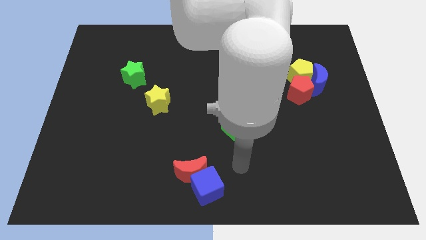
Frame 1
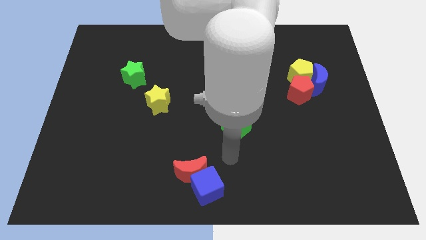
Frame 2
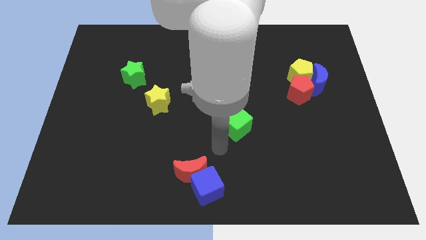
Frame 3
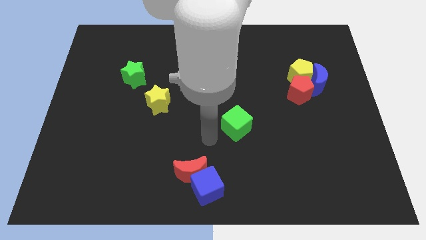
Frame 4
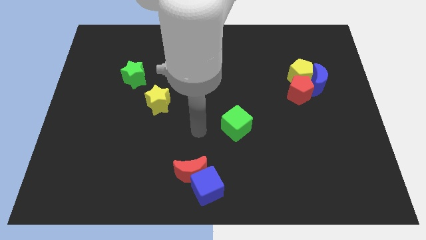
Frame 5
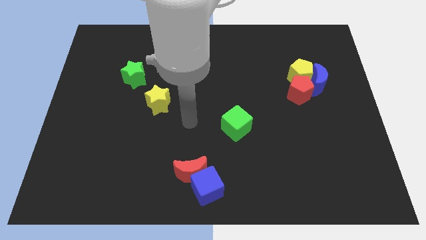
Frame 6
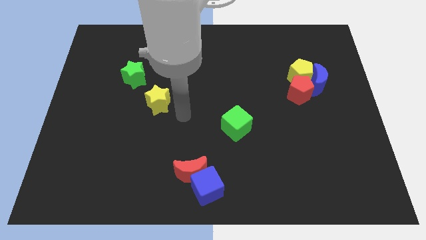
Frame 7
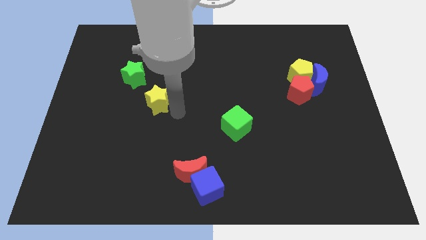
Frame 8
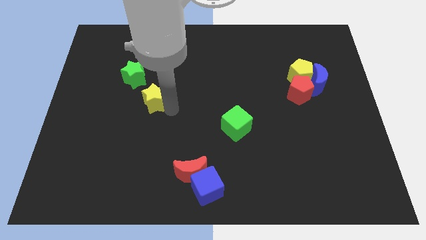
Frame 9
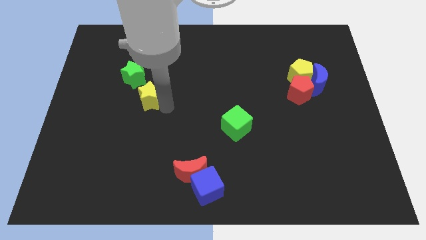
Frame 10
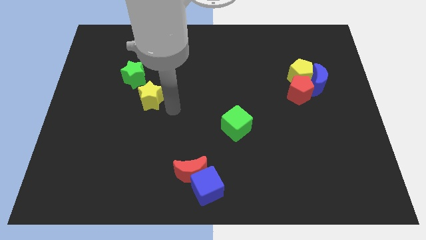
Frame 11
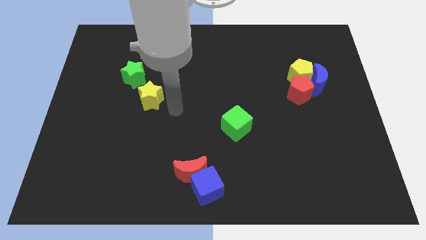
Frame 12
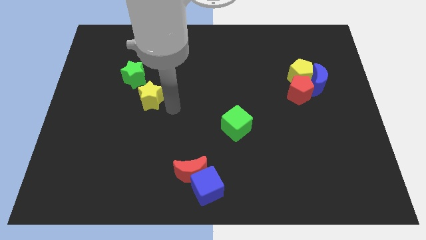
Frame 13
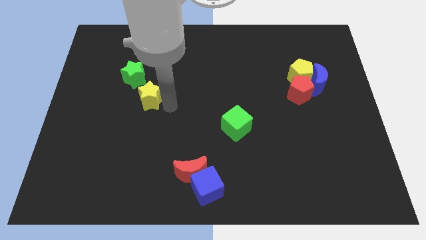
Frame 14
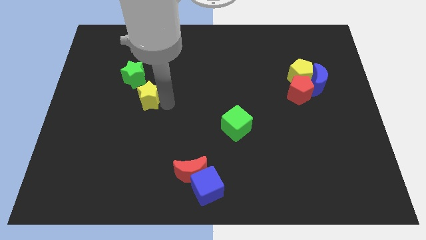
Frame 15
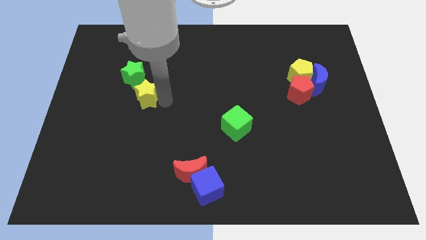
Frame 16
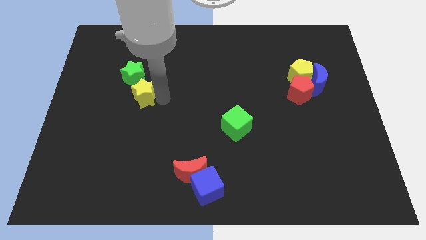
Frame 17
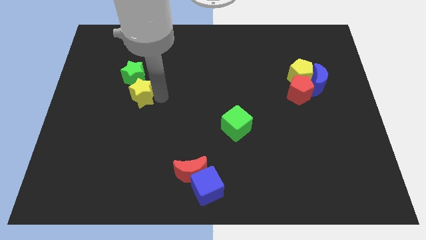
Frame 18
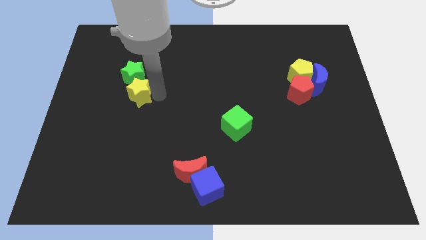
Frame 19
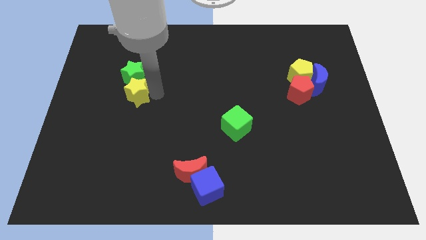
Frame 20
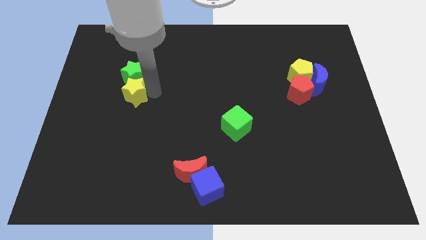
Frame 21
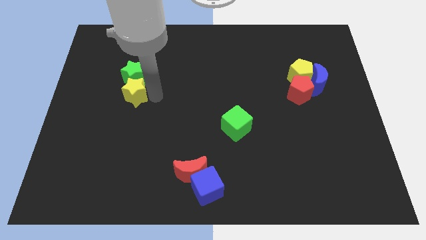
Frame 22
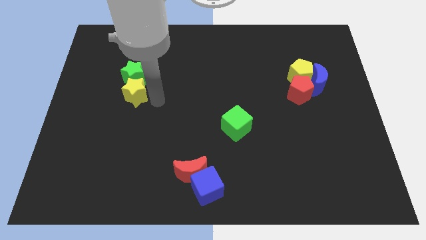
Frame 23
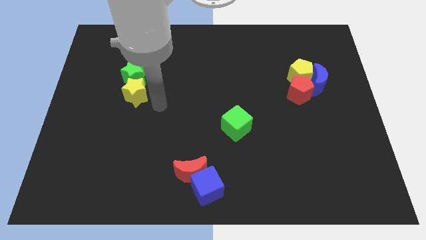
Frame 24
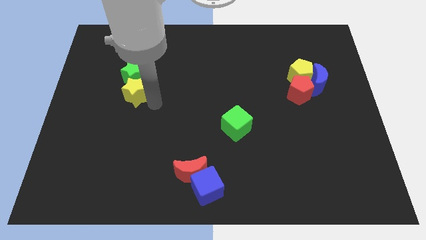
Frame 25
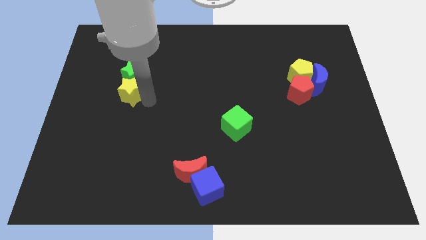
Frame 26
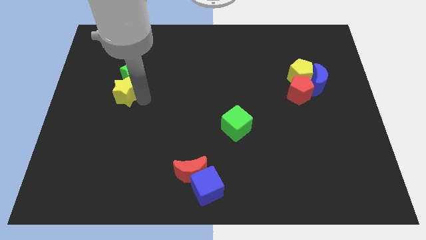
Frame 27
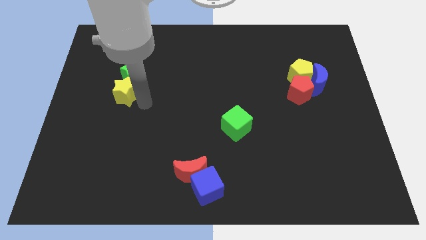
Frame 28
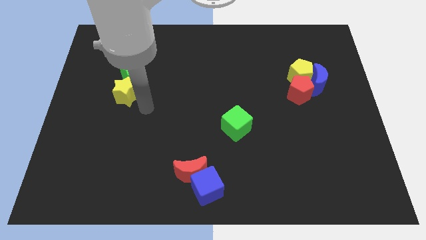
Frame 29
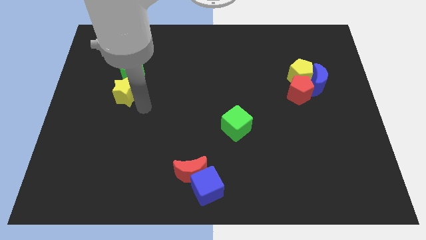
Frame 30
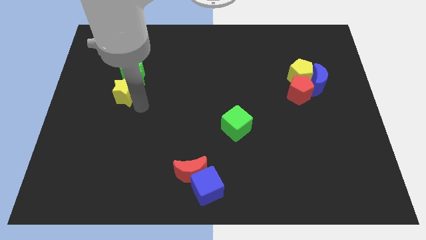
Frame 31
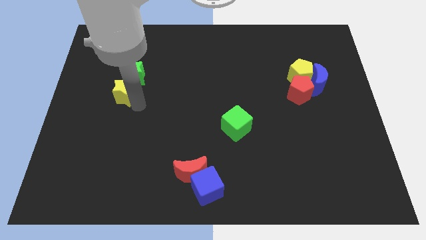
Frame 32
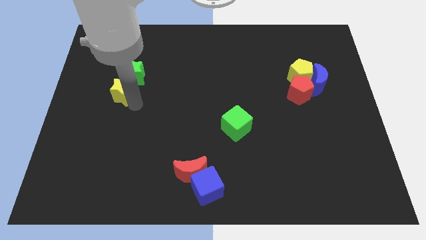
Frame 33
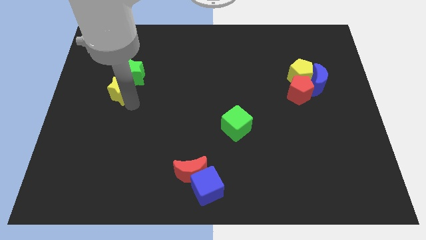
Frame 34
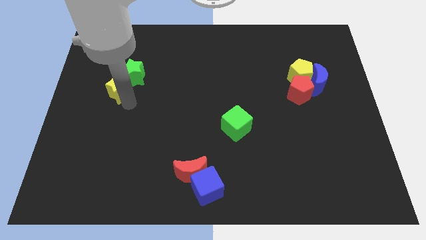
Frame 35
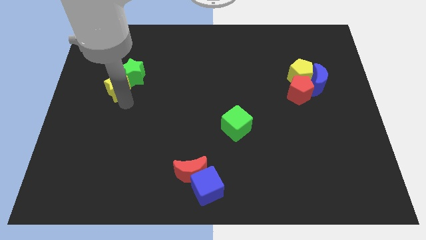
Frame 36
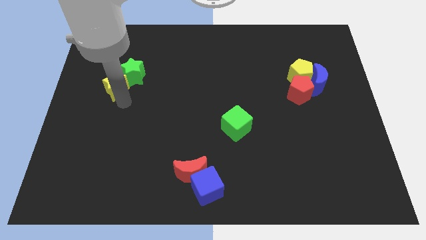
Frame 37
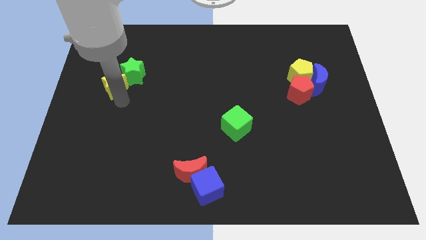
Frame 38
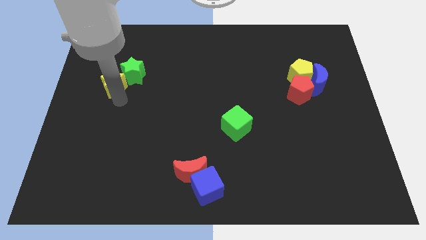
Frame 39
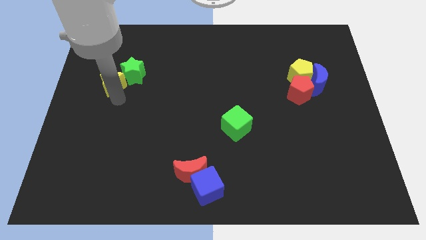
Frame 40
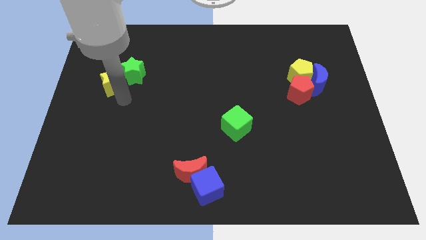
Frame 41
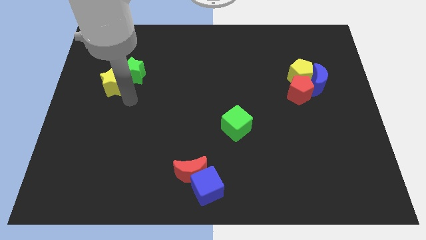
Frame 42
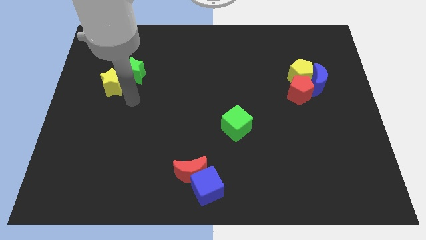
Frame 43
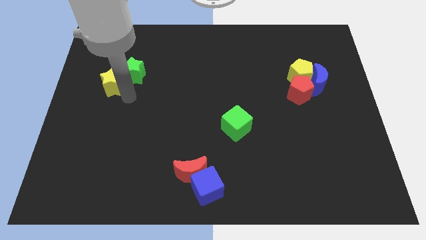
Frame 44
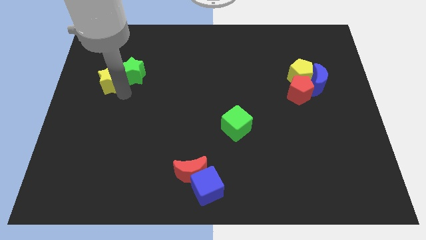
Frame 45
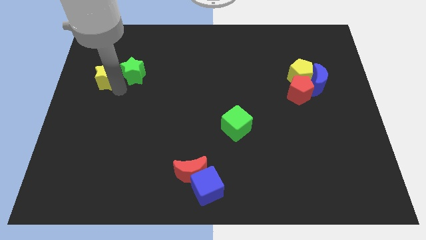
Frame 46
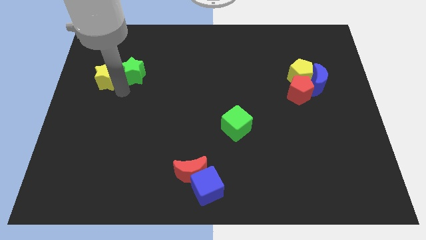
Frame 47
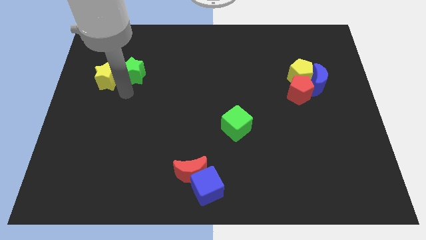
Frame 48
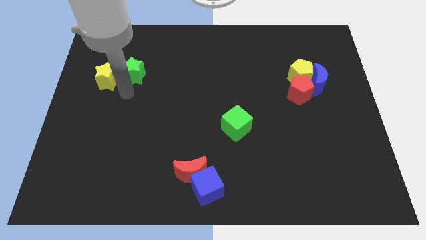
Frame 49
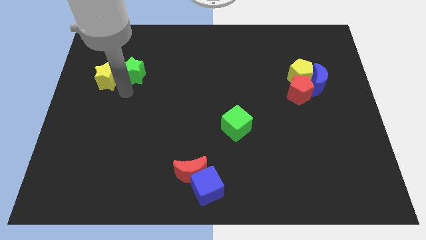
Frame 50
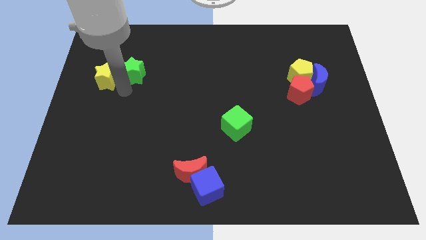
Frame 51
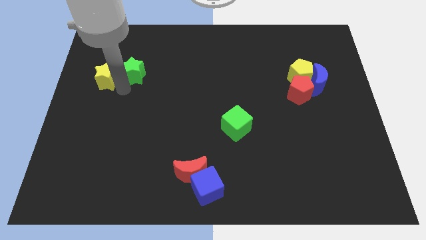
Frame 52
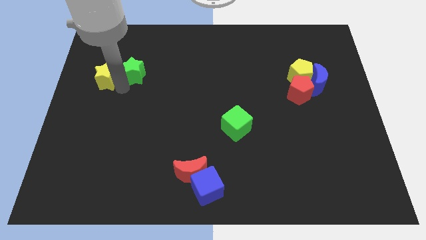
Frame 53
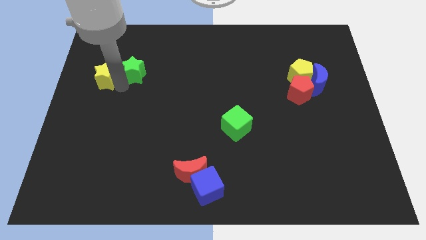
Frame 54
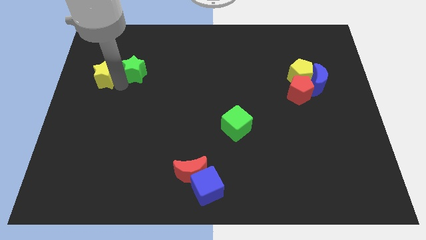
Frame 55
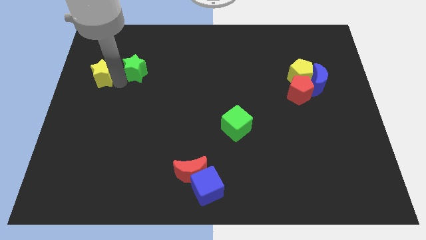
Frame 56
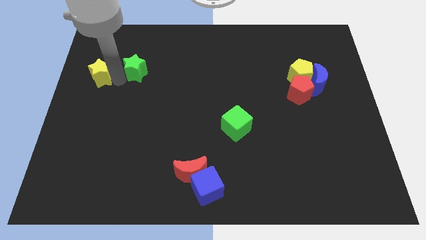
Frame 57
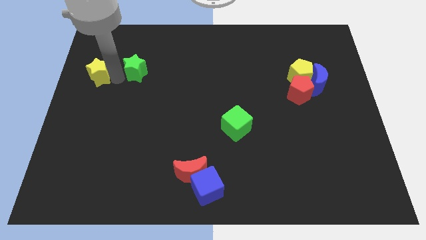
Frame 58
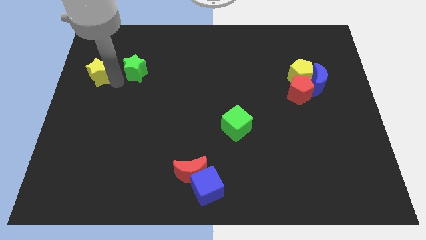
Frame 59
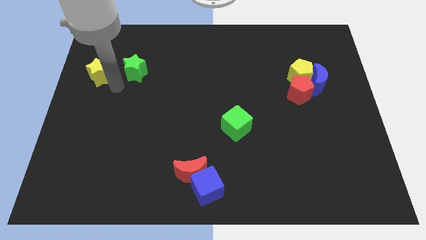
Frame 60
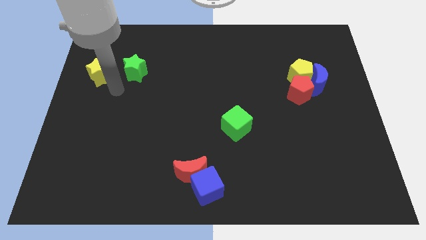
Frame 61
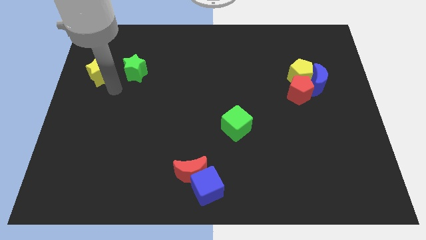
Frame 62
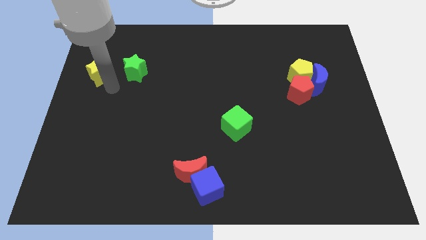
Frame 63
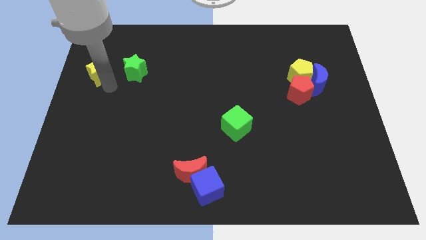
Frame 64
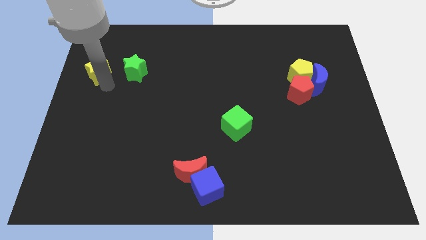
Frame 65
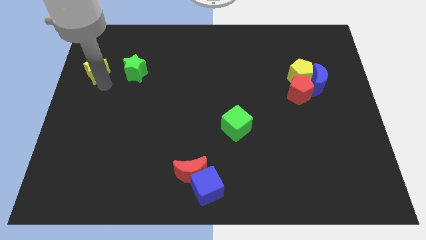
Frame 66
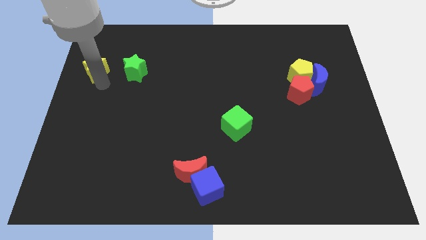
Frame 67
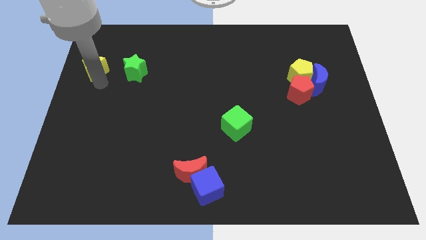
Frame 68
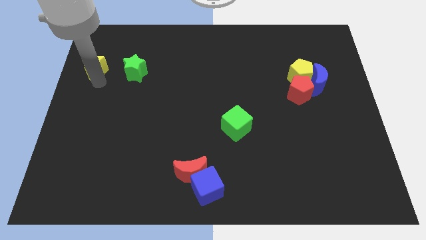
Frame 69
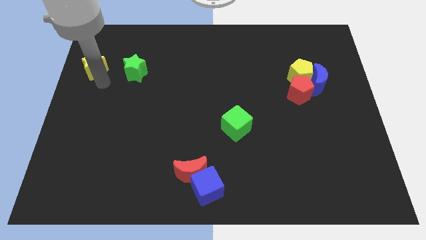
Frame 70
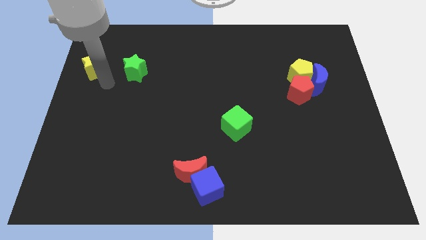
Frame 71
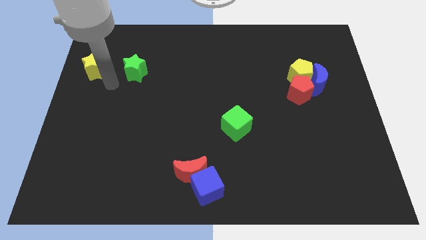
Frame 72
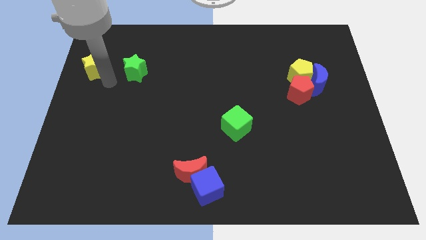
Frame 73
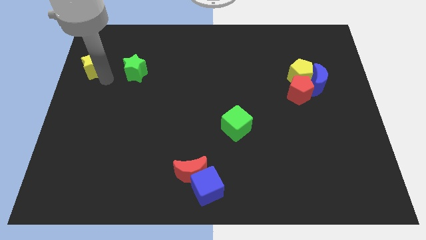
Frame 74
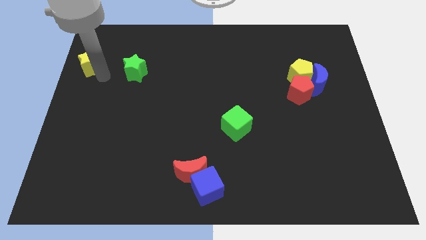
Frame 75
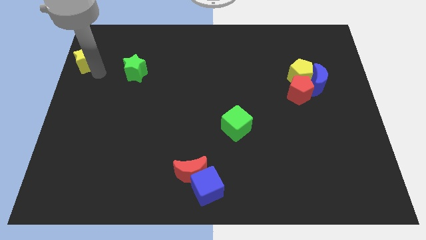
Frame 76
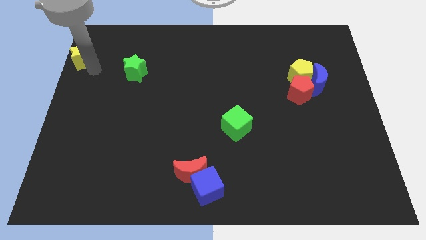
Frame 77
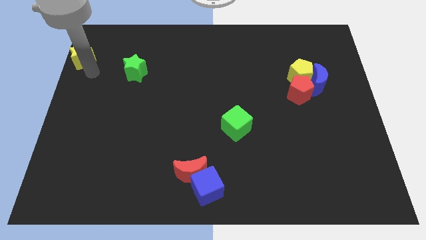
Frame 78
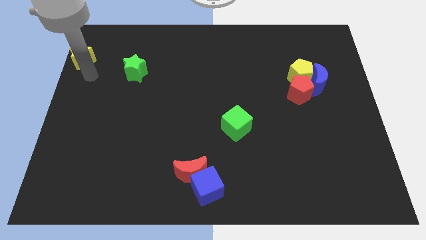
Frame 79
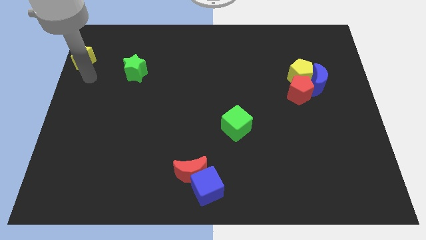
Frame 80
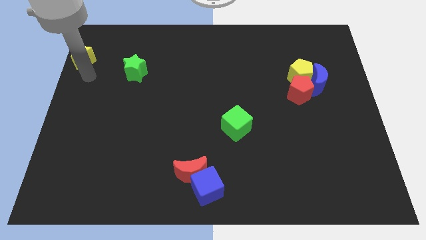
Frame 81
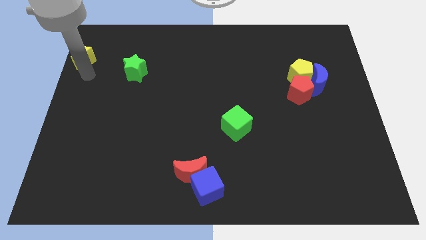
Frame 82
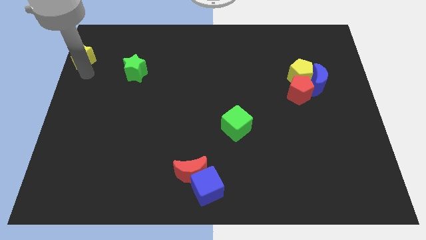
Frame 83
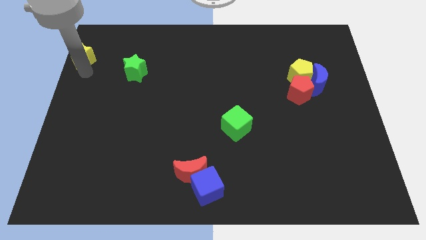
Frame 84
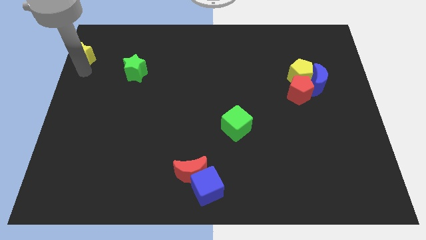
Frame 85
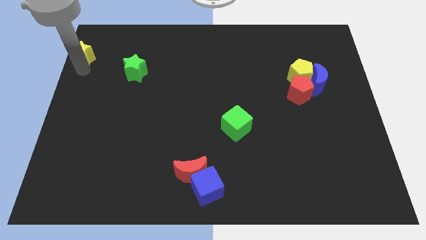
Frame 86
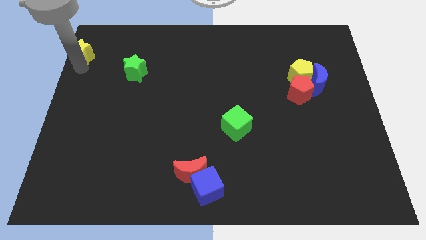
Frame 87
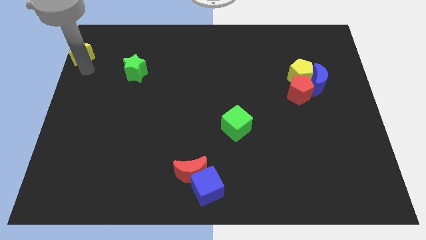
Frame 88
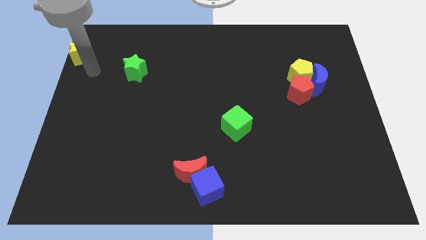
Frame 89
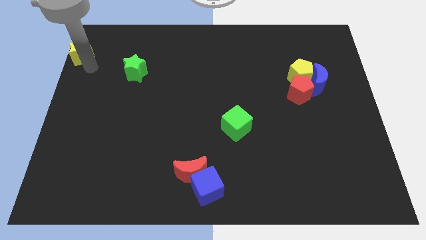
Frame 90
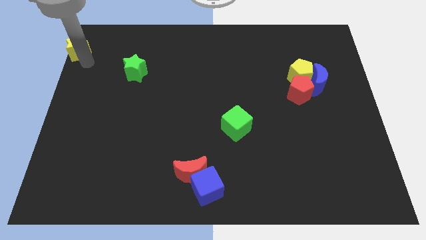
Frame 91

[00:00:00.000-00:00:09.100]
put the yellow star to the top left
